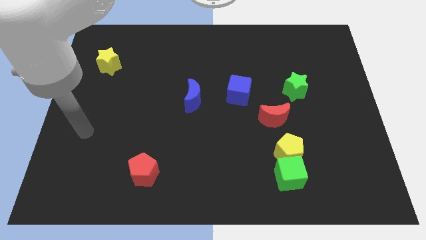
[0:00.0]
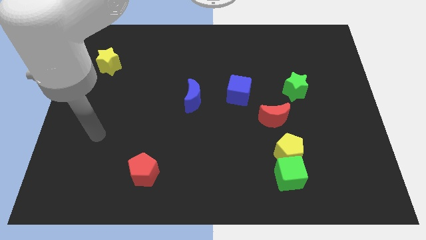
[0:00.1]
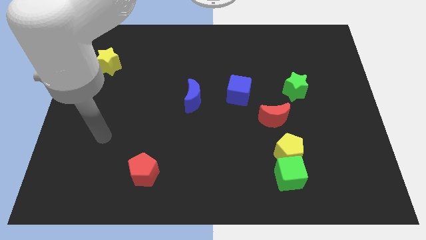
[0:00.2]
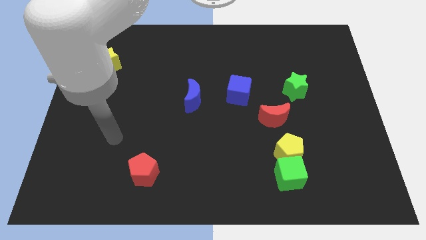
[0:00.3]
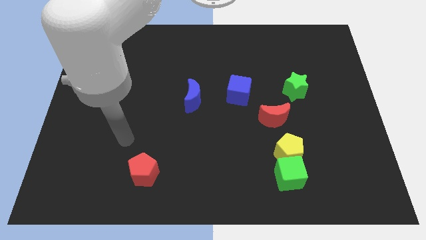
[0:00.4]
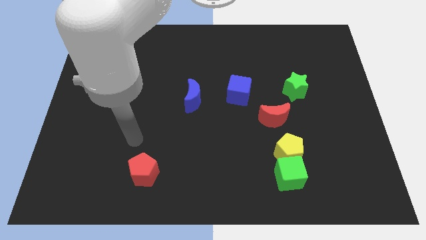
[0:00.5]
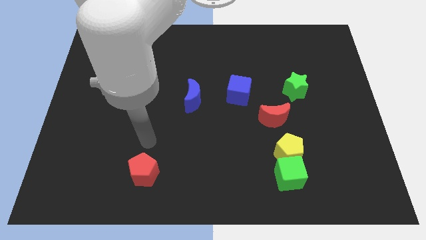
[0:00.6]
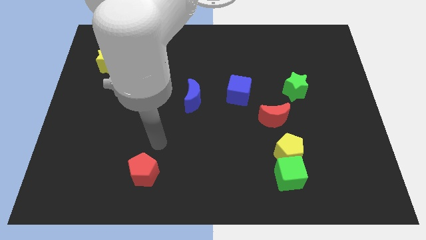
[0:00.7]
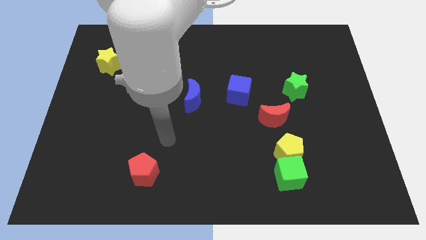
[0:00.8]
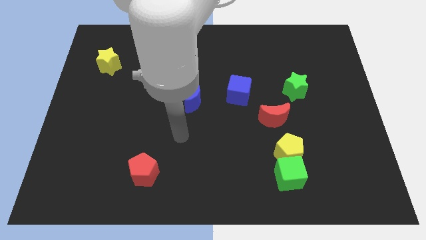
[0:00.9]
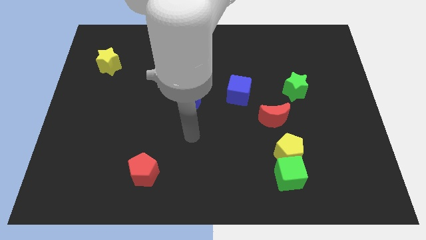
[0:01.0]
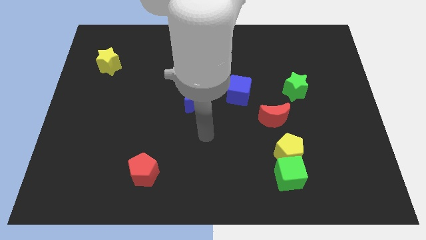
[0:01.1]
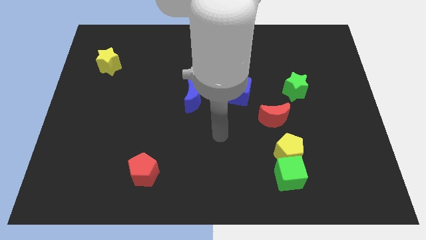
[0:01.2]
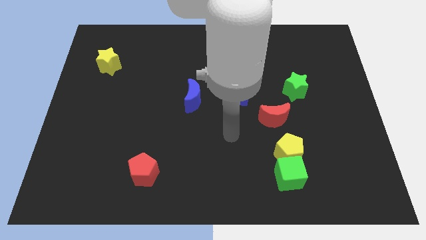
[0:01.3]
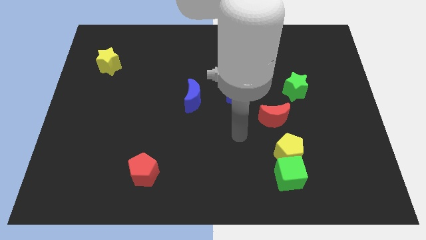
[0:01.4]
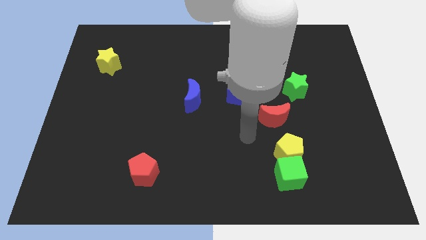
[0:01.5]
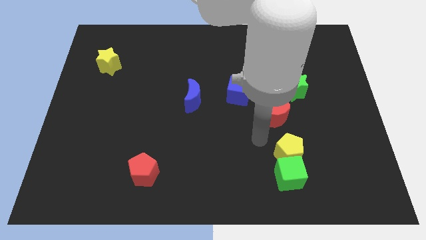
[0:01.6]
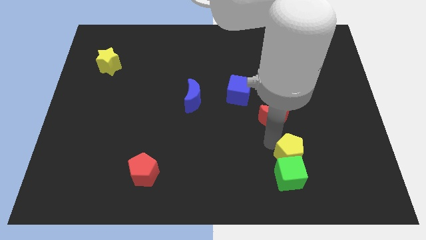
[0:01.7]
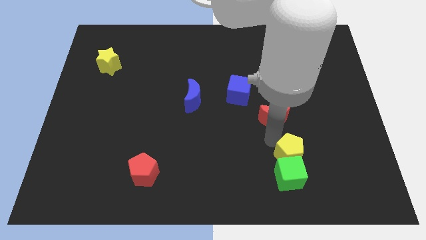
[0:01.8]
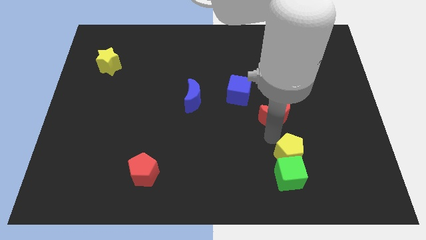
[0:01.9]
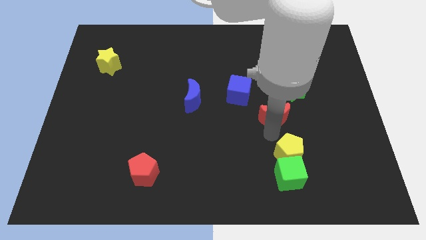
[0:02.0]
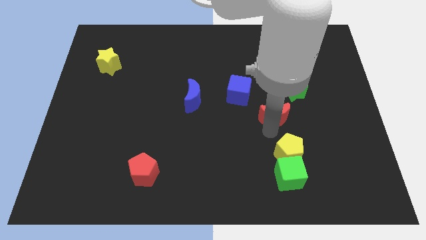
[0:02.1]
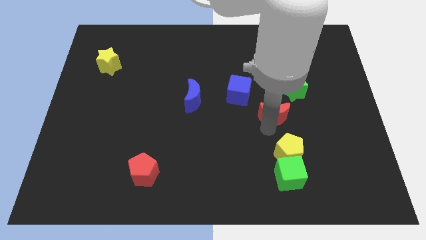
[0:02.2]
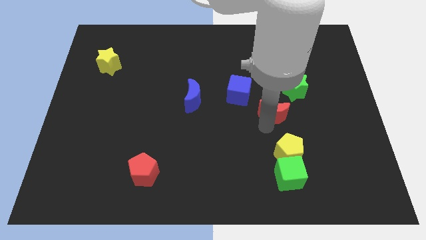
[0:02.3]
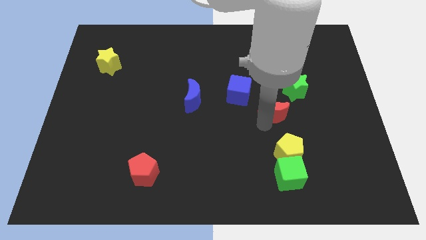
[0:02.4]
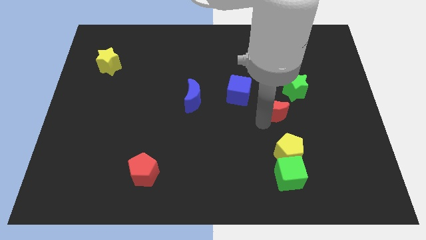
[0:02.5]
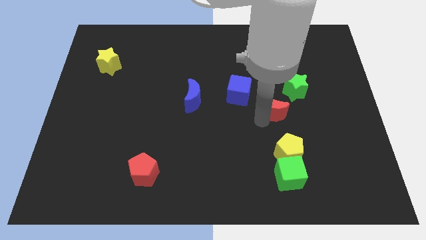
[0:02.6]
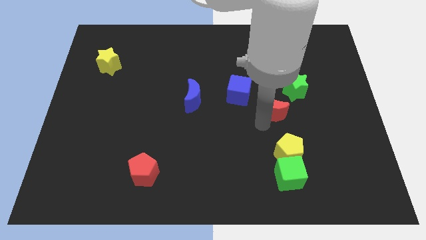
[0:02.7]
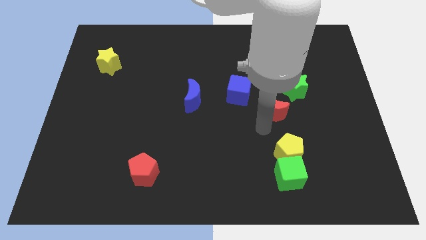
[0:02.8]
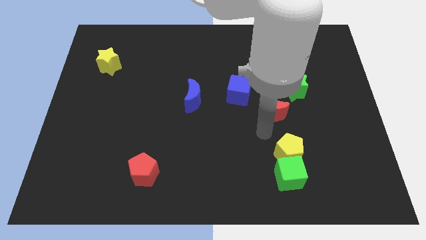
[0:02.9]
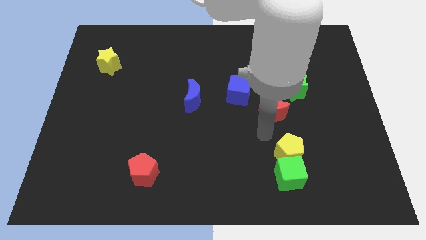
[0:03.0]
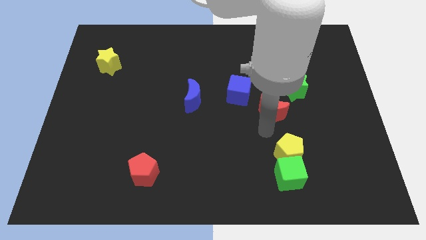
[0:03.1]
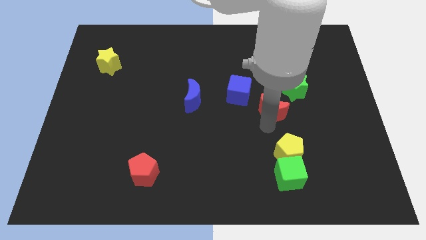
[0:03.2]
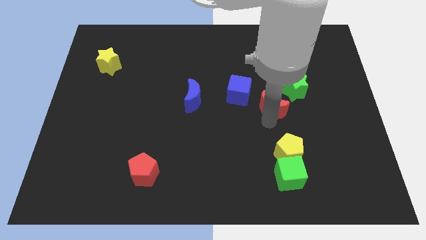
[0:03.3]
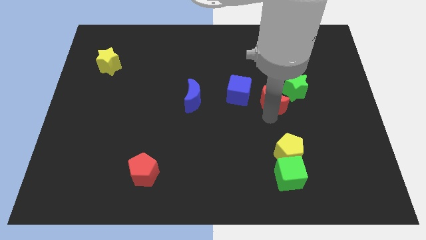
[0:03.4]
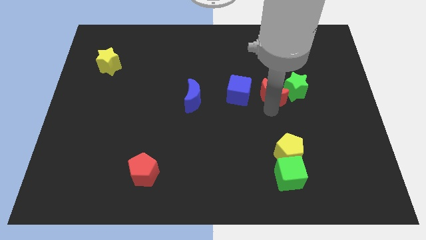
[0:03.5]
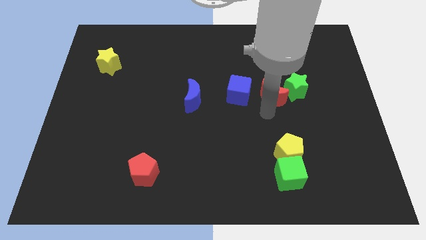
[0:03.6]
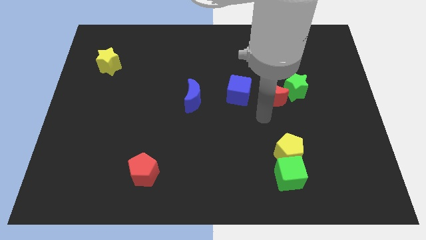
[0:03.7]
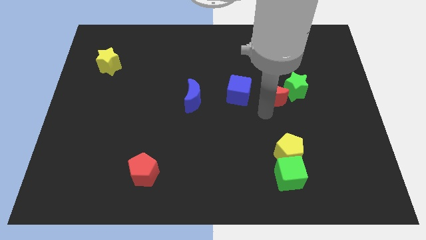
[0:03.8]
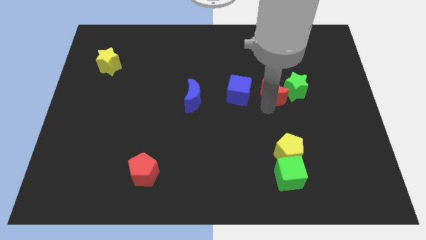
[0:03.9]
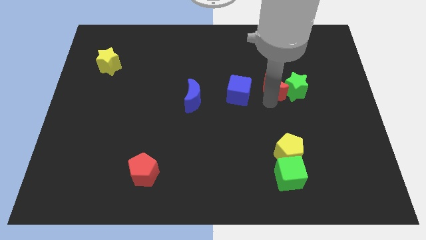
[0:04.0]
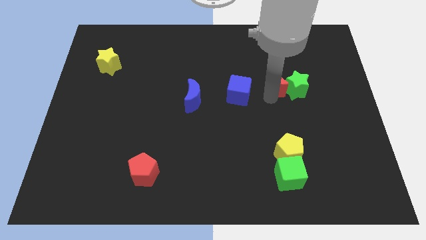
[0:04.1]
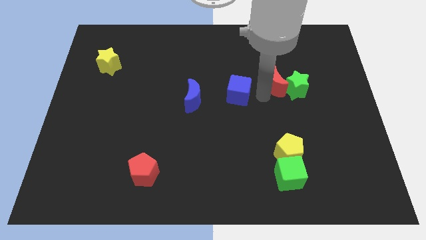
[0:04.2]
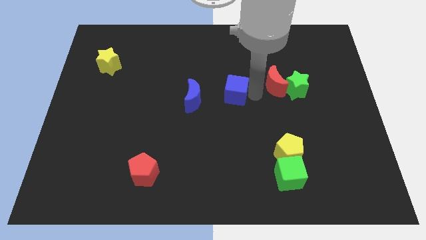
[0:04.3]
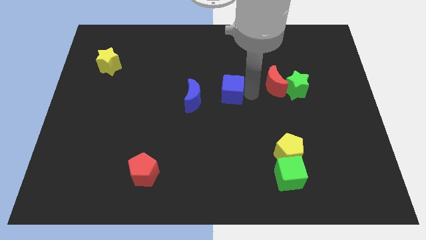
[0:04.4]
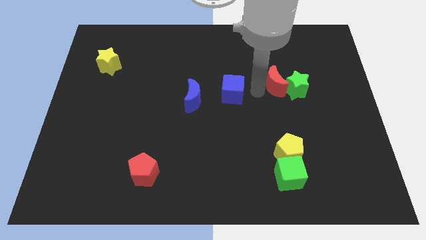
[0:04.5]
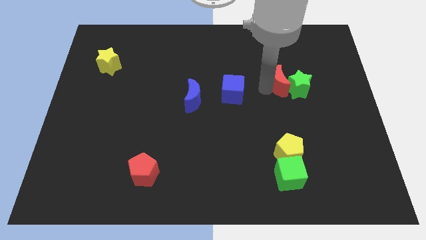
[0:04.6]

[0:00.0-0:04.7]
move the red moon a bit upwards and to the right diagonally

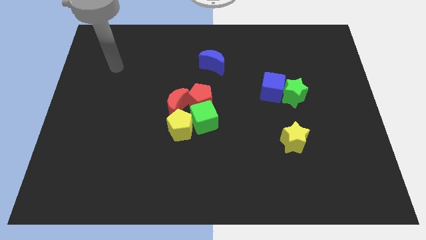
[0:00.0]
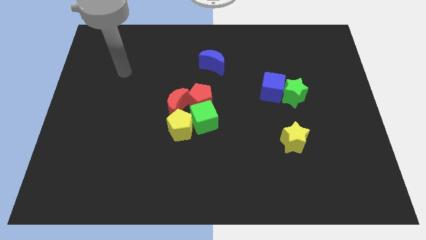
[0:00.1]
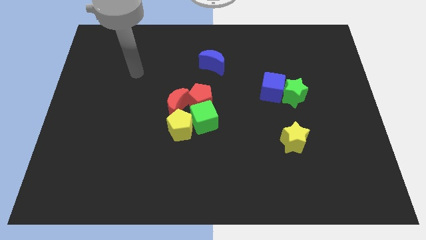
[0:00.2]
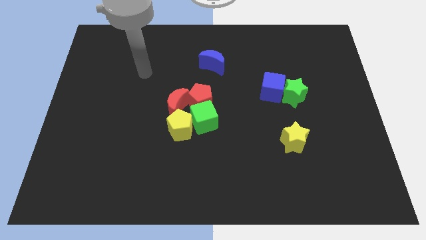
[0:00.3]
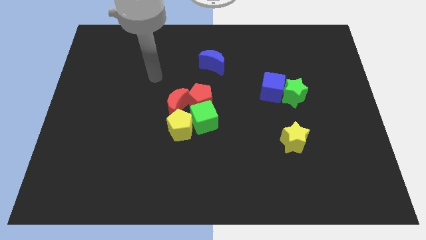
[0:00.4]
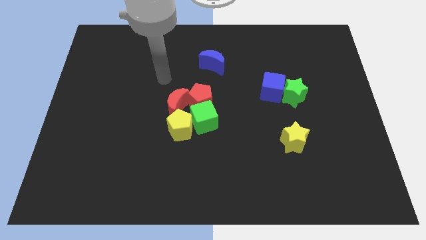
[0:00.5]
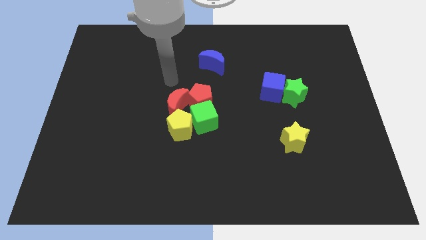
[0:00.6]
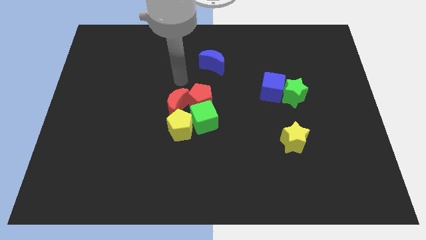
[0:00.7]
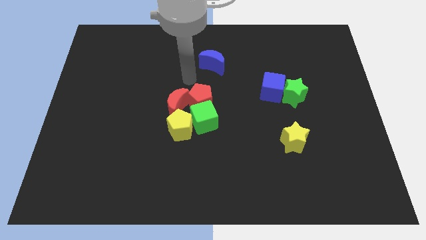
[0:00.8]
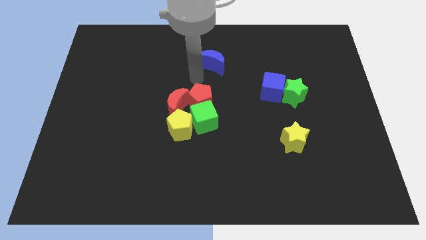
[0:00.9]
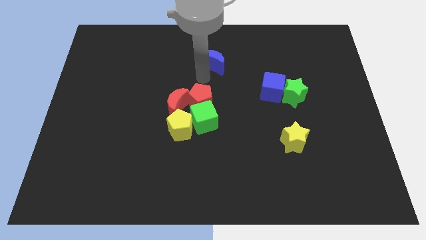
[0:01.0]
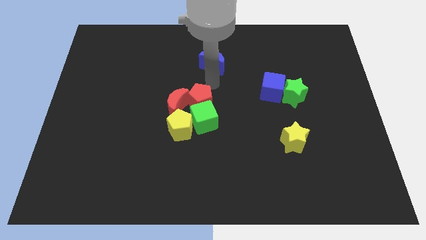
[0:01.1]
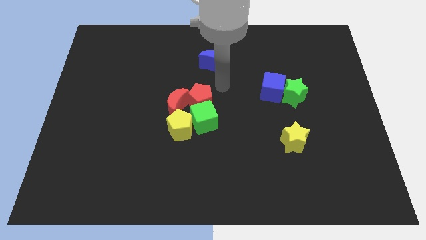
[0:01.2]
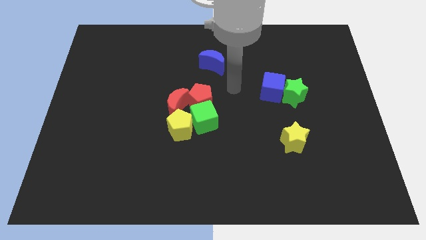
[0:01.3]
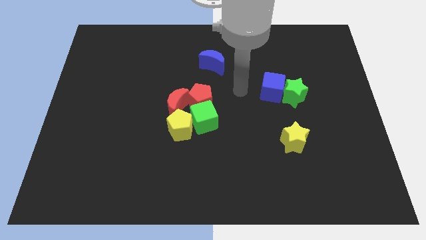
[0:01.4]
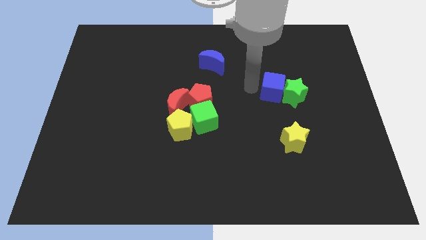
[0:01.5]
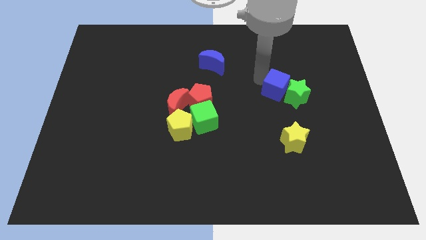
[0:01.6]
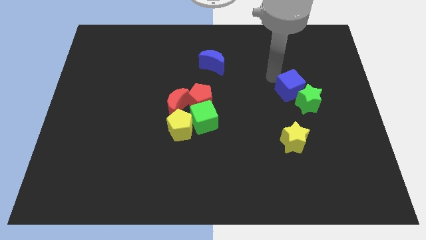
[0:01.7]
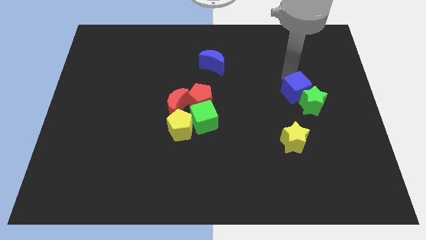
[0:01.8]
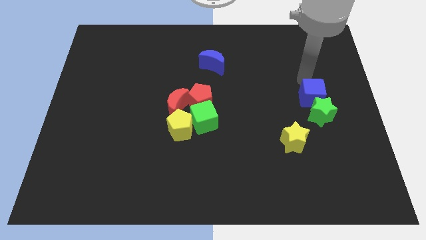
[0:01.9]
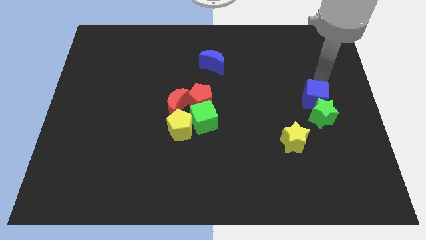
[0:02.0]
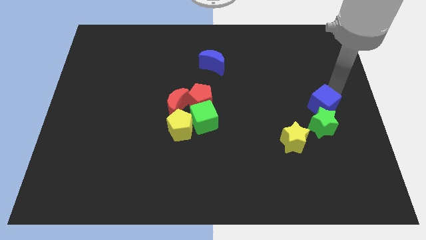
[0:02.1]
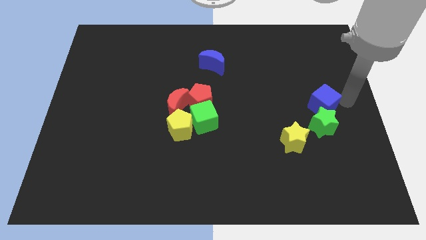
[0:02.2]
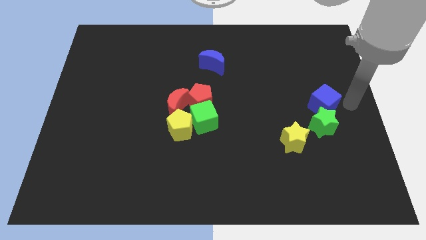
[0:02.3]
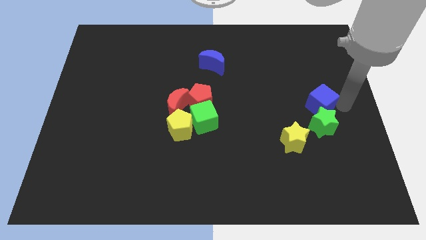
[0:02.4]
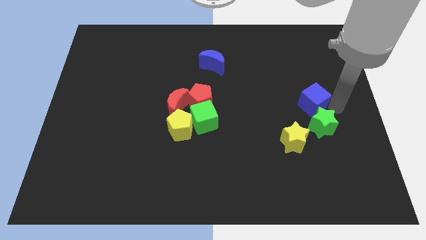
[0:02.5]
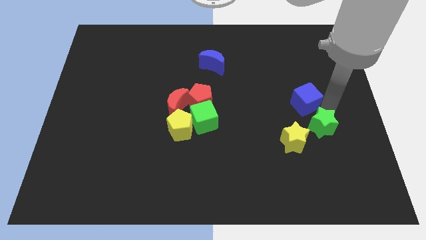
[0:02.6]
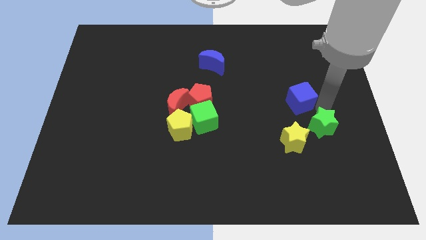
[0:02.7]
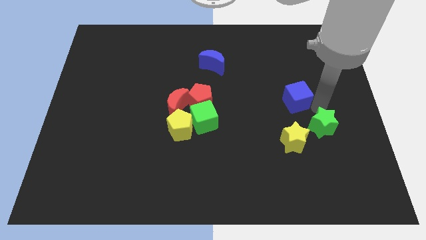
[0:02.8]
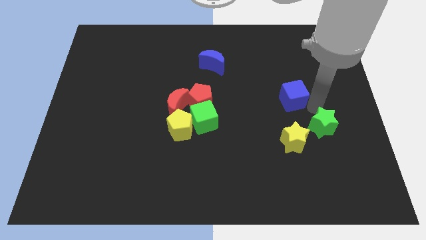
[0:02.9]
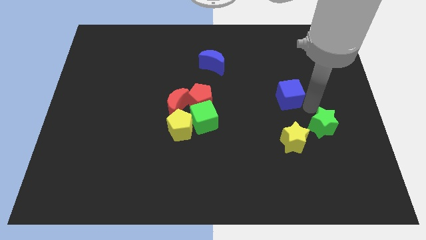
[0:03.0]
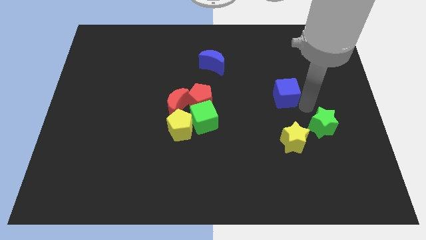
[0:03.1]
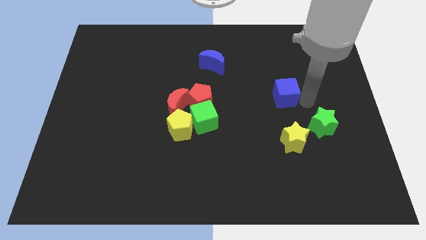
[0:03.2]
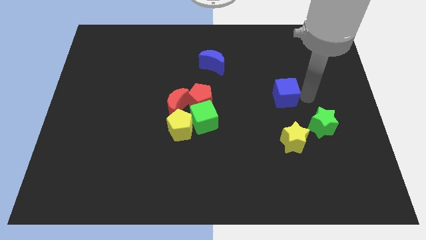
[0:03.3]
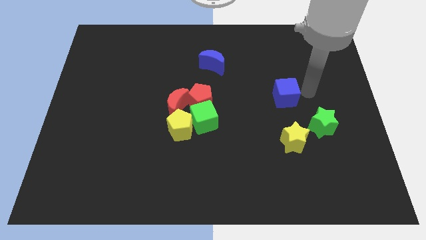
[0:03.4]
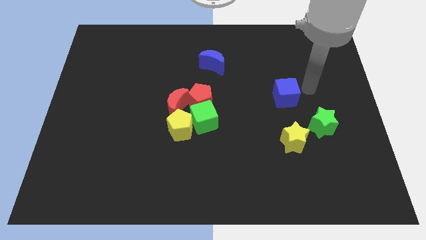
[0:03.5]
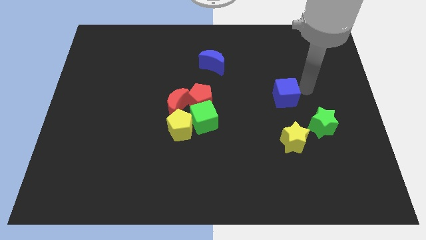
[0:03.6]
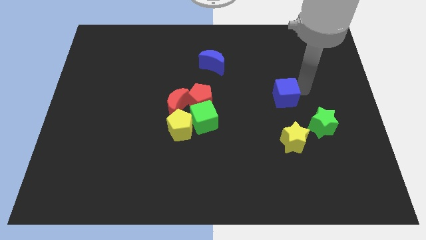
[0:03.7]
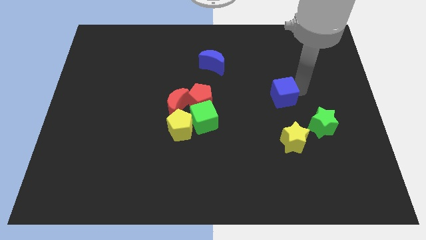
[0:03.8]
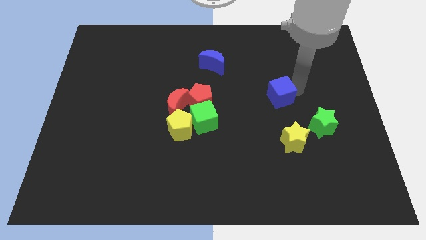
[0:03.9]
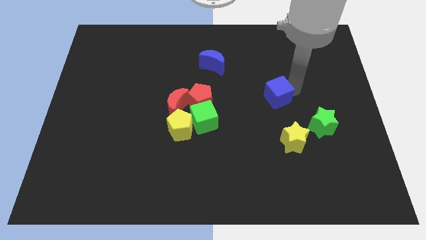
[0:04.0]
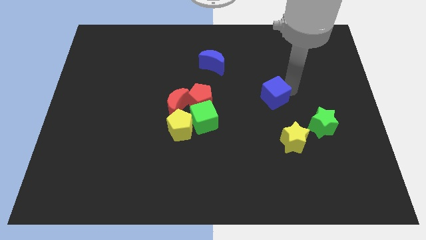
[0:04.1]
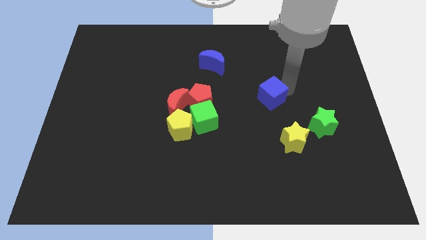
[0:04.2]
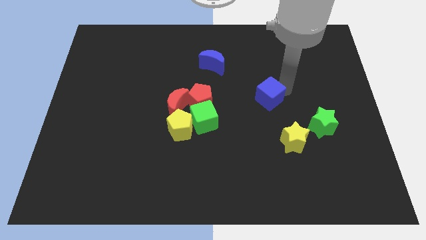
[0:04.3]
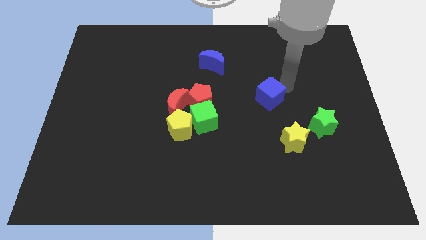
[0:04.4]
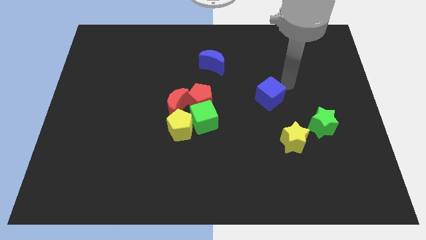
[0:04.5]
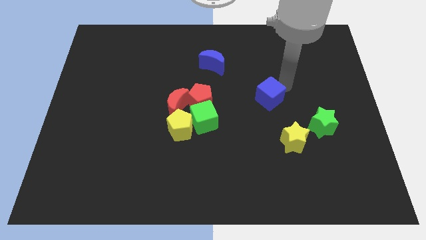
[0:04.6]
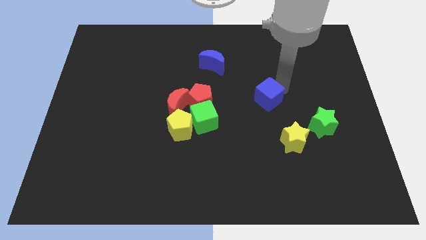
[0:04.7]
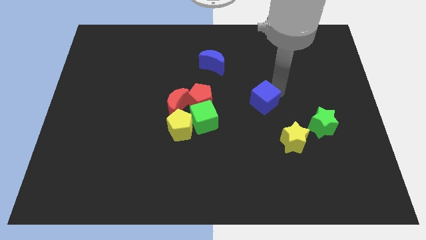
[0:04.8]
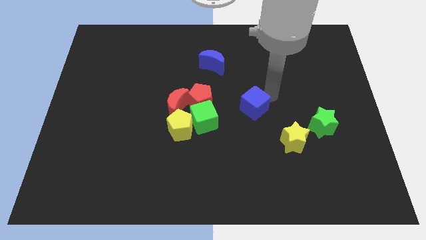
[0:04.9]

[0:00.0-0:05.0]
push the blue cube somewhat diagonally downwards and to the left
